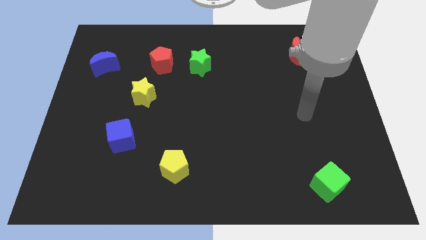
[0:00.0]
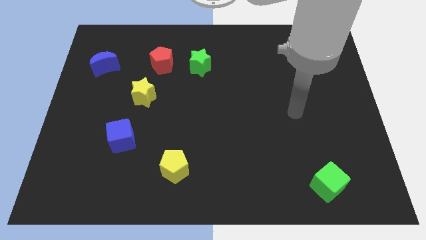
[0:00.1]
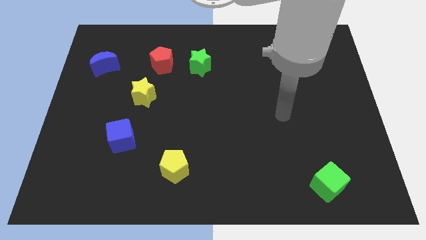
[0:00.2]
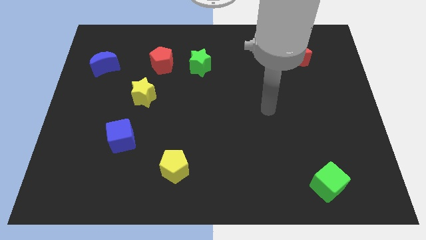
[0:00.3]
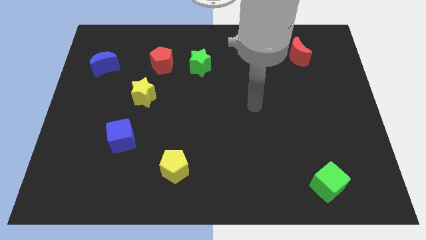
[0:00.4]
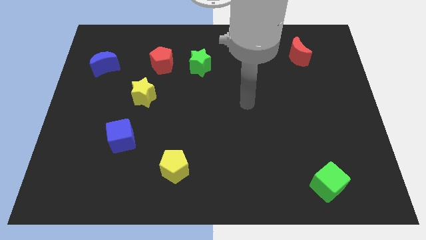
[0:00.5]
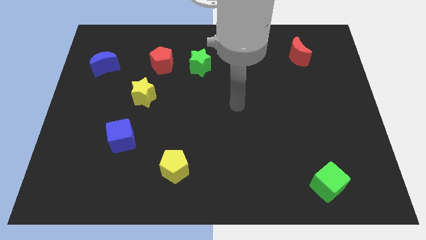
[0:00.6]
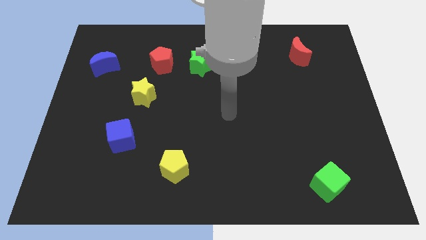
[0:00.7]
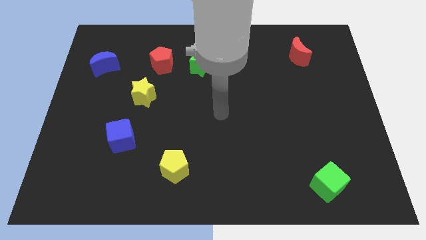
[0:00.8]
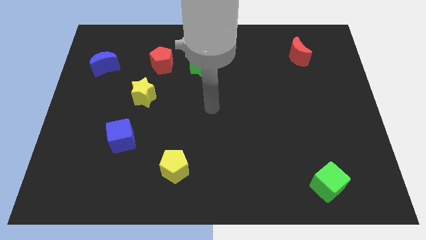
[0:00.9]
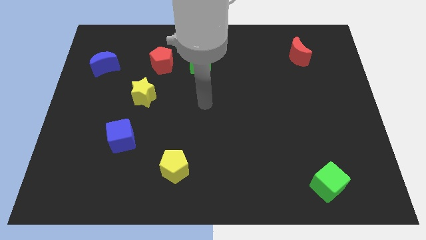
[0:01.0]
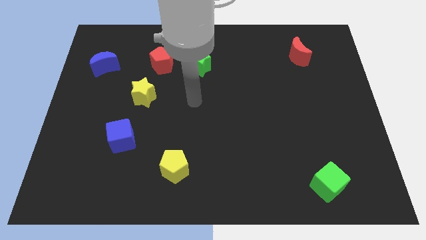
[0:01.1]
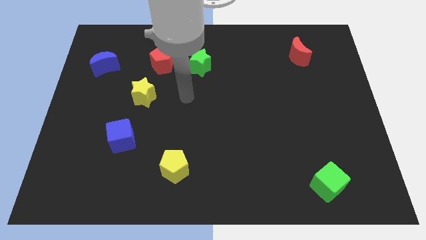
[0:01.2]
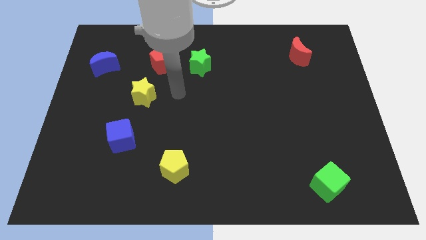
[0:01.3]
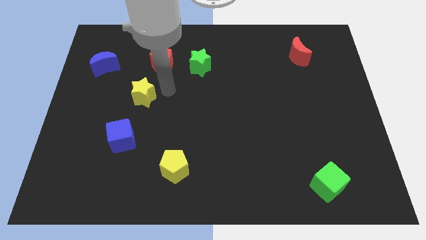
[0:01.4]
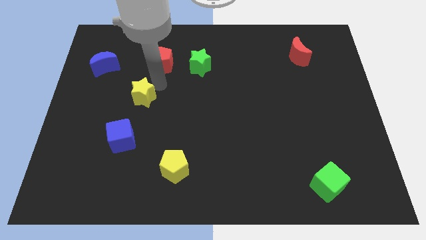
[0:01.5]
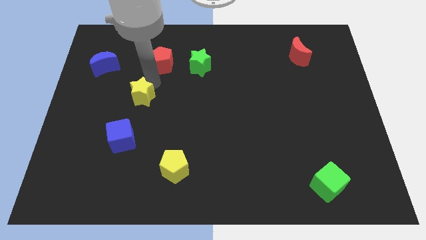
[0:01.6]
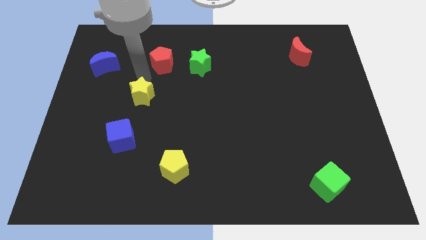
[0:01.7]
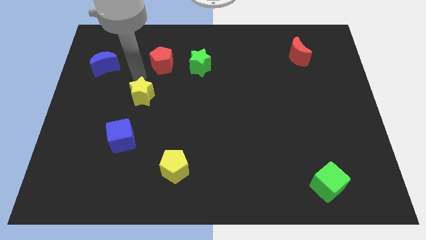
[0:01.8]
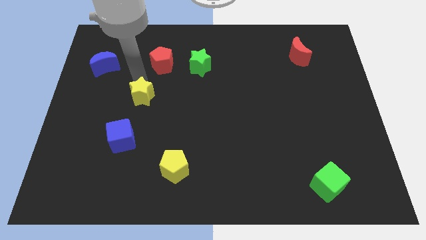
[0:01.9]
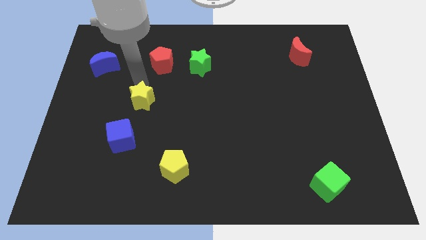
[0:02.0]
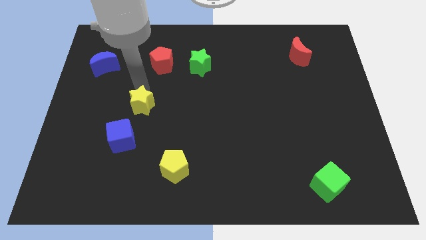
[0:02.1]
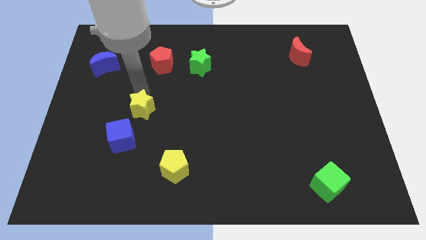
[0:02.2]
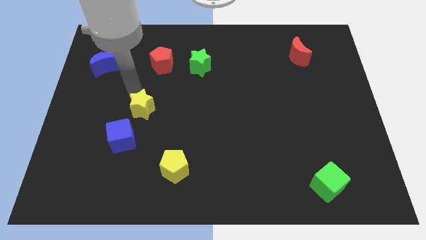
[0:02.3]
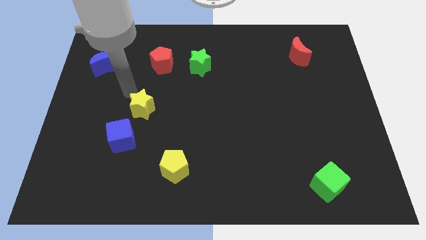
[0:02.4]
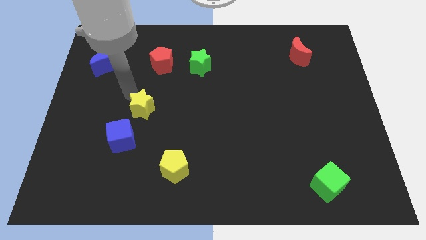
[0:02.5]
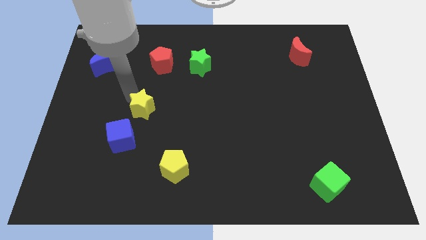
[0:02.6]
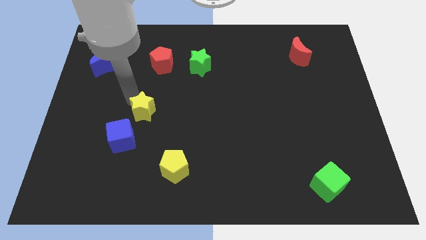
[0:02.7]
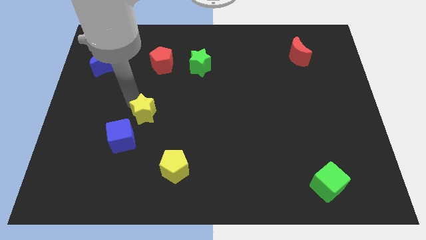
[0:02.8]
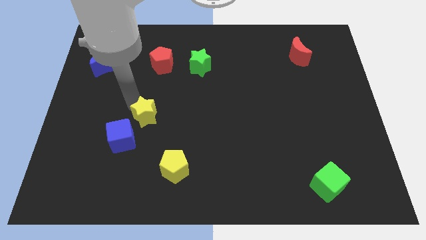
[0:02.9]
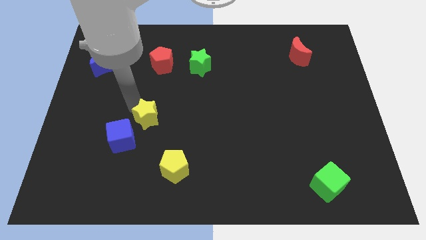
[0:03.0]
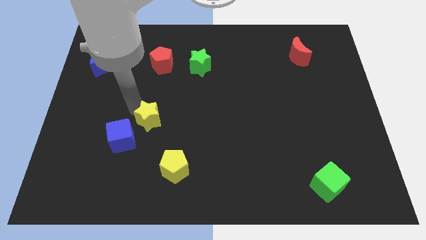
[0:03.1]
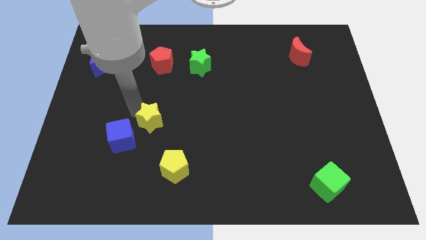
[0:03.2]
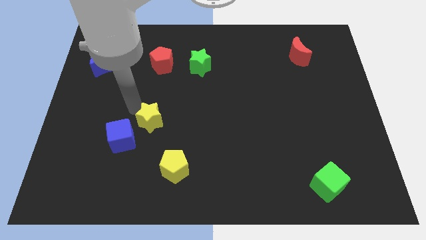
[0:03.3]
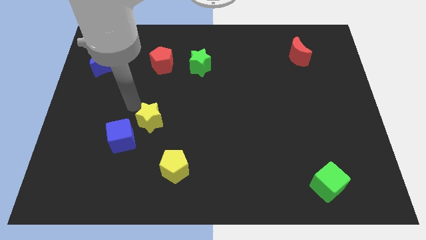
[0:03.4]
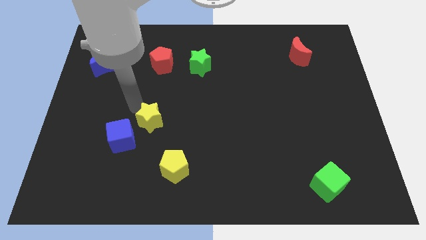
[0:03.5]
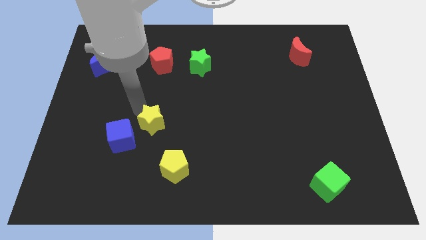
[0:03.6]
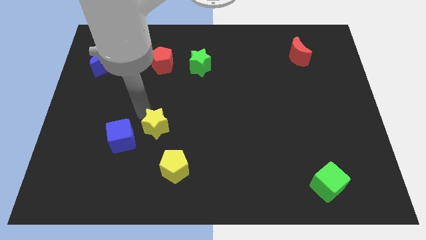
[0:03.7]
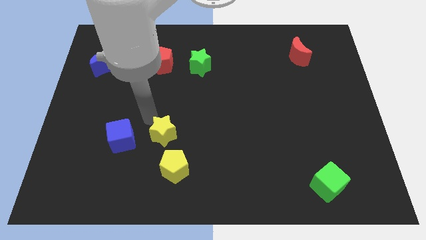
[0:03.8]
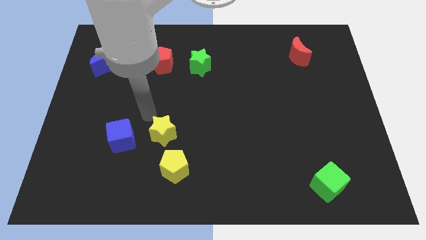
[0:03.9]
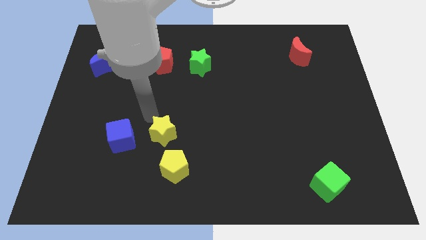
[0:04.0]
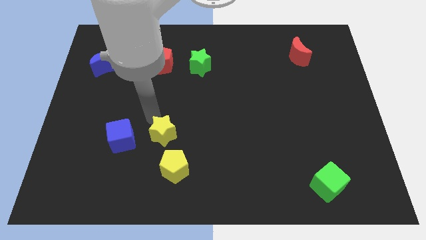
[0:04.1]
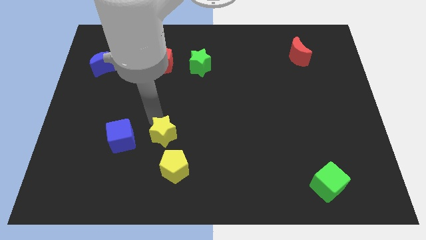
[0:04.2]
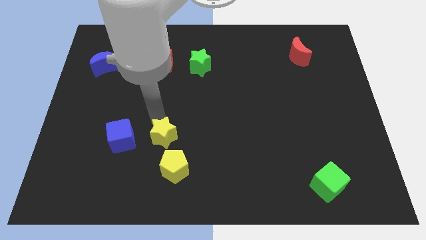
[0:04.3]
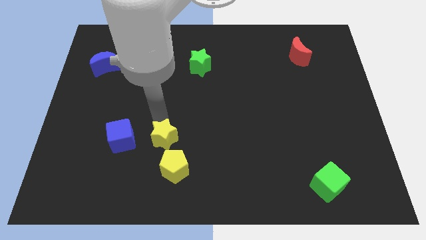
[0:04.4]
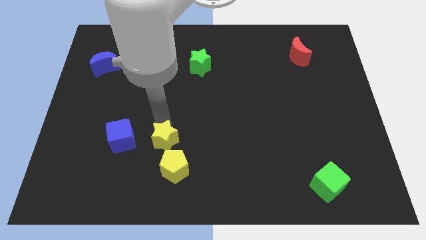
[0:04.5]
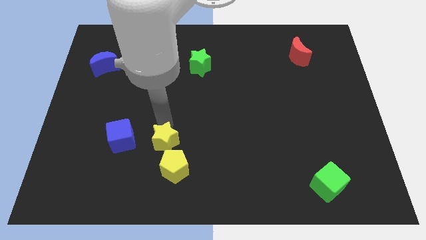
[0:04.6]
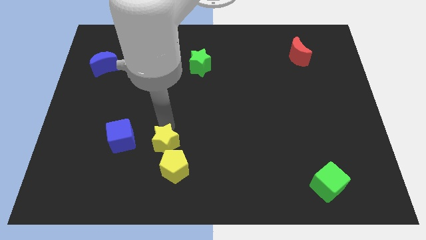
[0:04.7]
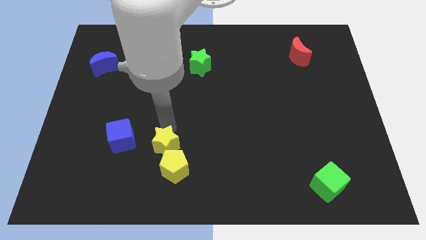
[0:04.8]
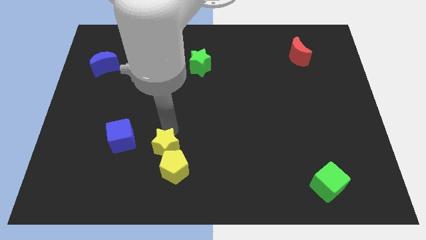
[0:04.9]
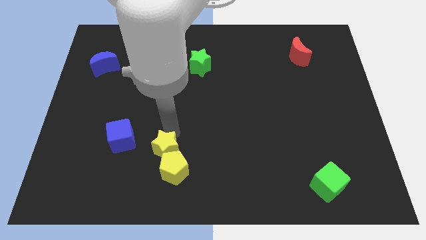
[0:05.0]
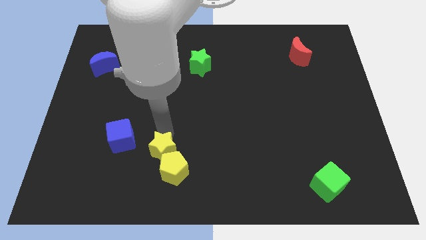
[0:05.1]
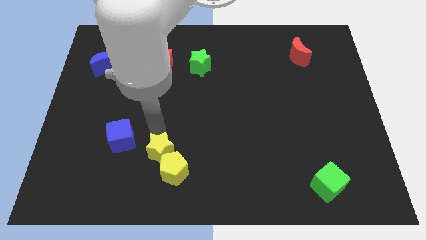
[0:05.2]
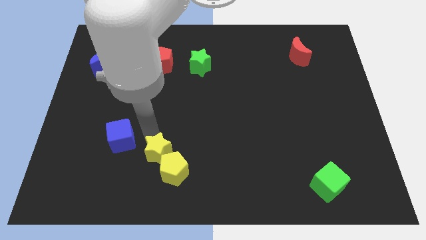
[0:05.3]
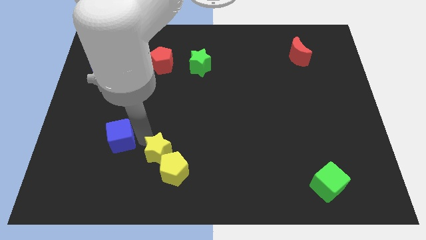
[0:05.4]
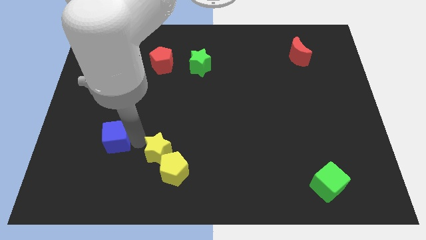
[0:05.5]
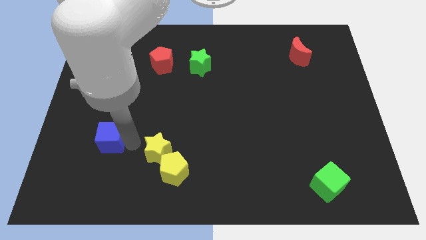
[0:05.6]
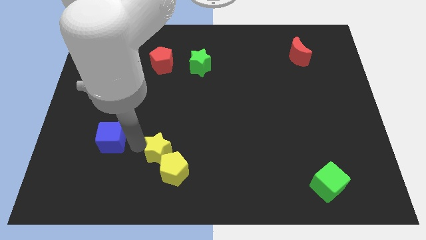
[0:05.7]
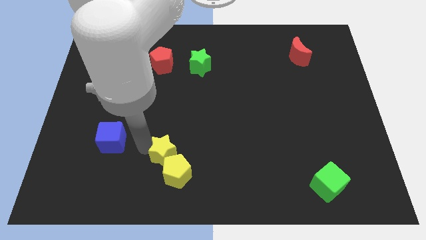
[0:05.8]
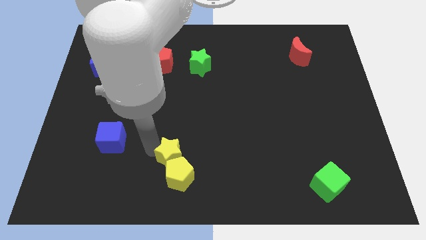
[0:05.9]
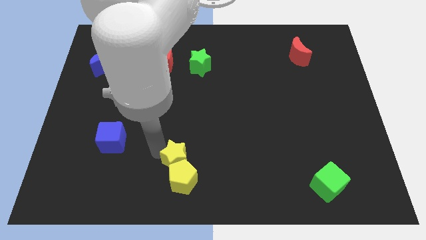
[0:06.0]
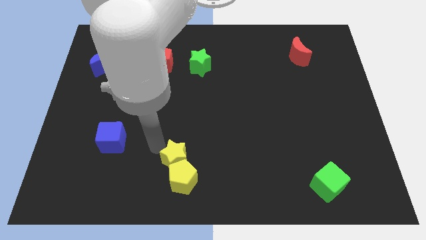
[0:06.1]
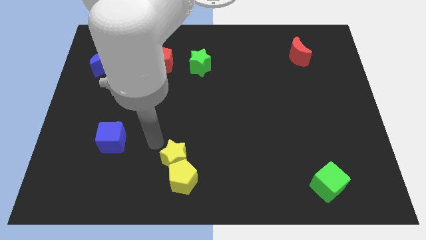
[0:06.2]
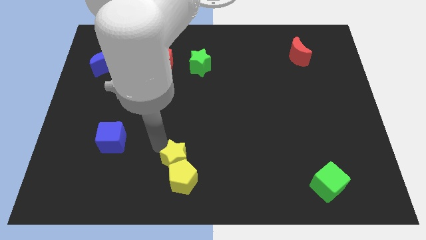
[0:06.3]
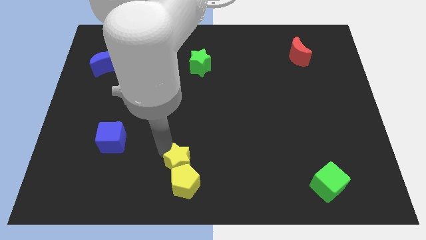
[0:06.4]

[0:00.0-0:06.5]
slide the yellow star to the bottom

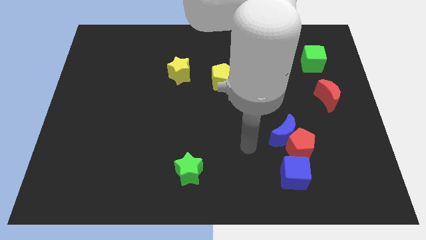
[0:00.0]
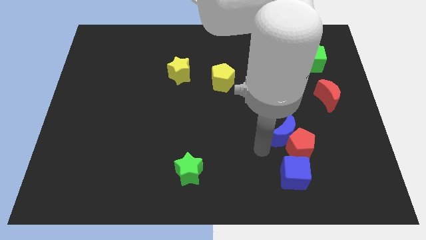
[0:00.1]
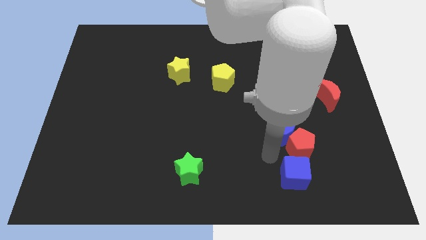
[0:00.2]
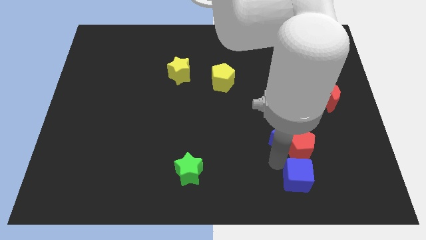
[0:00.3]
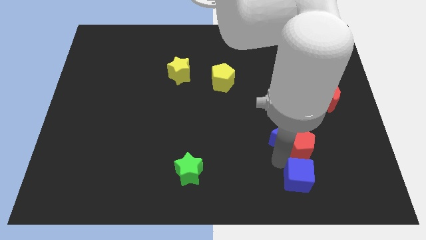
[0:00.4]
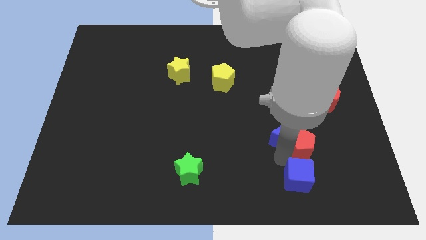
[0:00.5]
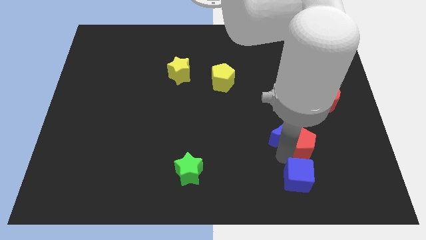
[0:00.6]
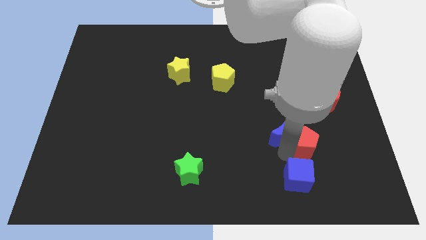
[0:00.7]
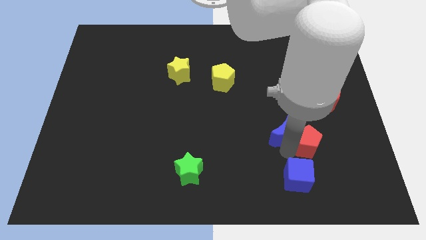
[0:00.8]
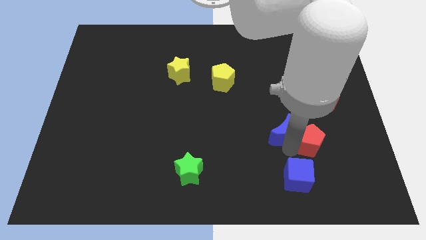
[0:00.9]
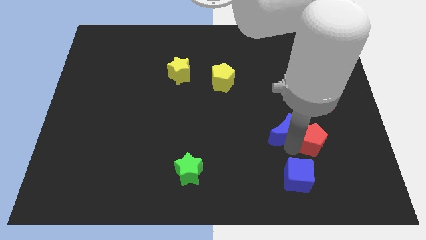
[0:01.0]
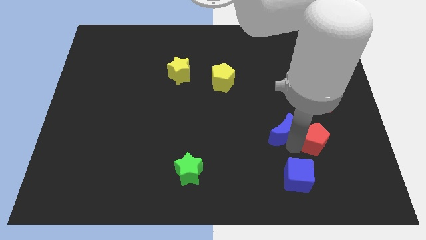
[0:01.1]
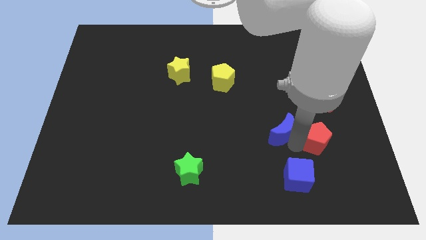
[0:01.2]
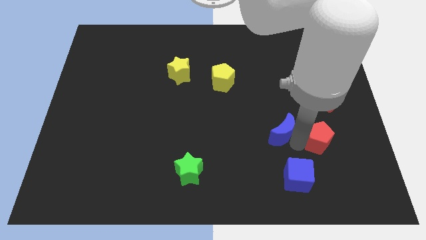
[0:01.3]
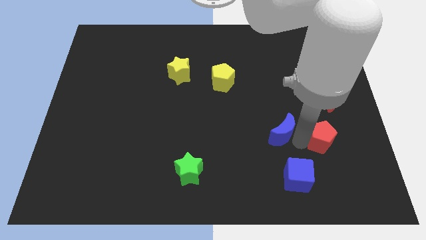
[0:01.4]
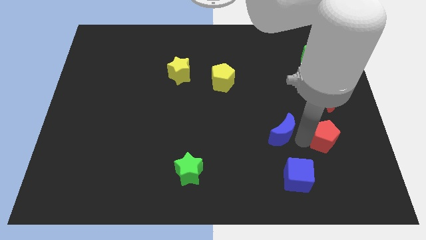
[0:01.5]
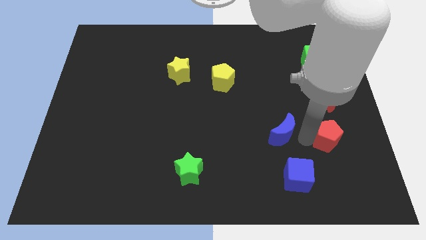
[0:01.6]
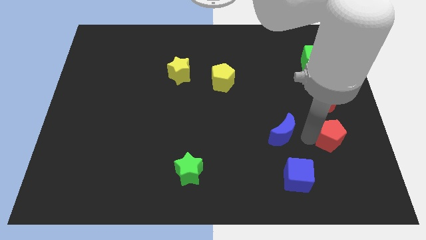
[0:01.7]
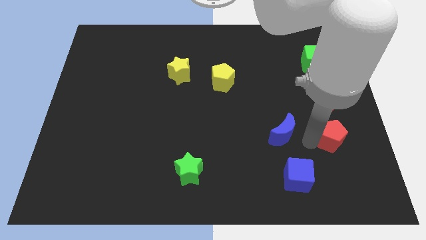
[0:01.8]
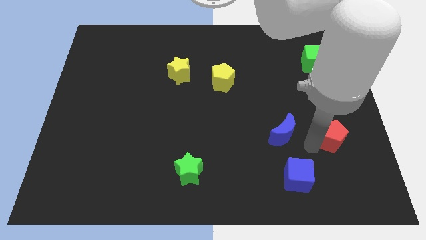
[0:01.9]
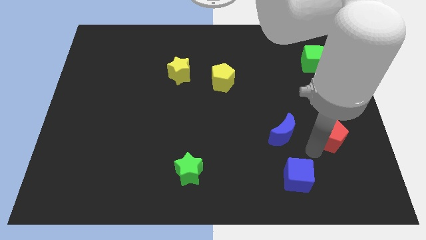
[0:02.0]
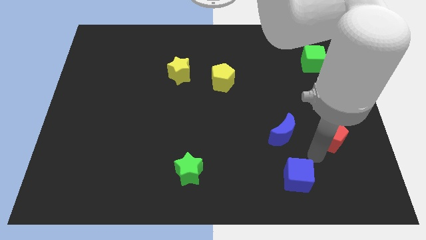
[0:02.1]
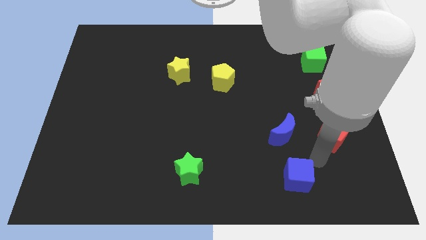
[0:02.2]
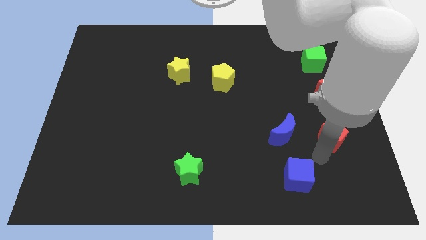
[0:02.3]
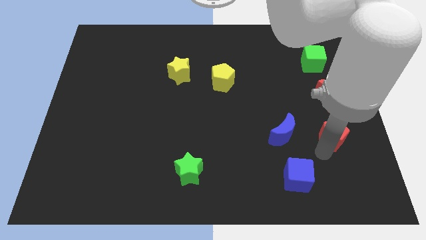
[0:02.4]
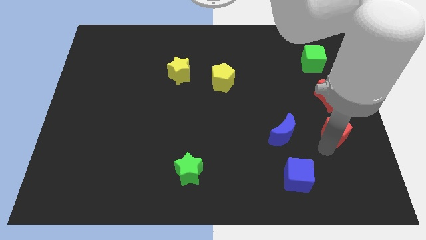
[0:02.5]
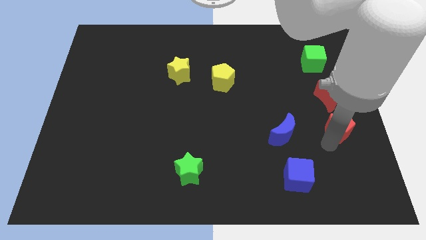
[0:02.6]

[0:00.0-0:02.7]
put the red pentagon to the right side
